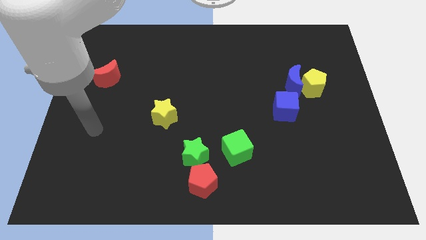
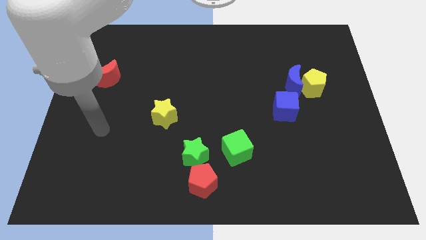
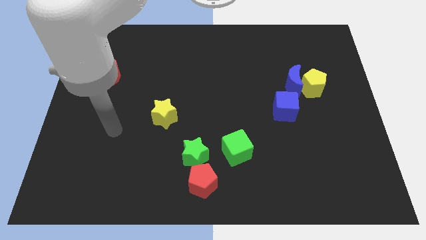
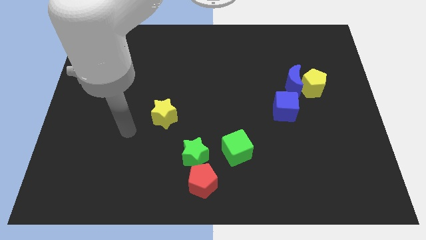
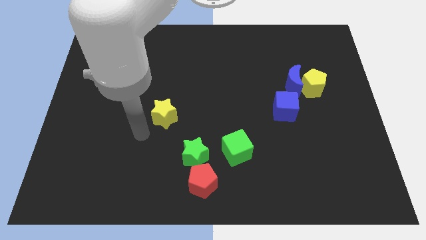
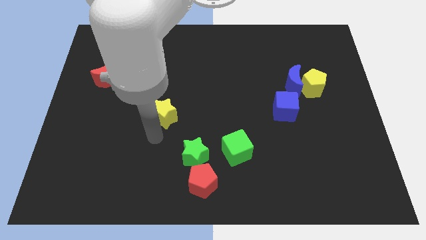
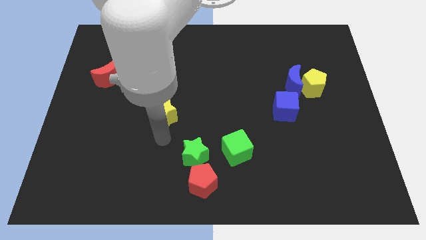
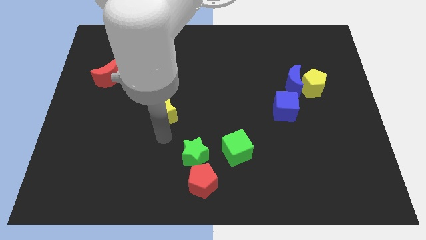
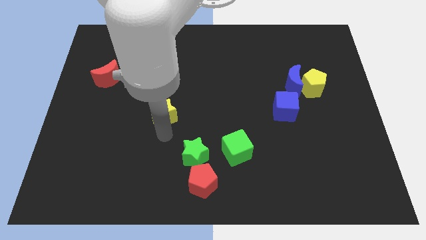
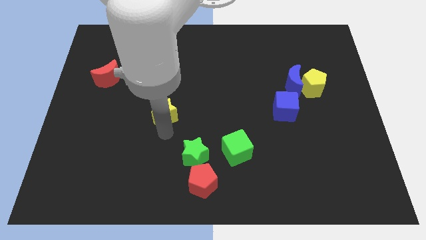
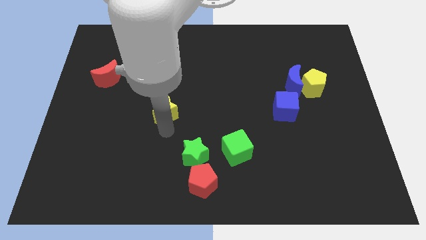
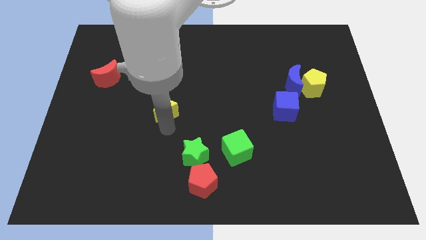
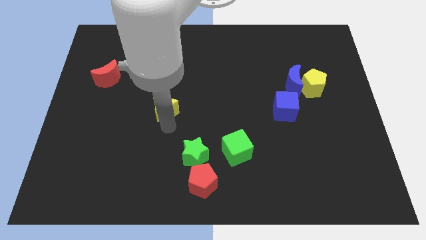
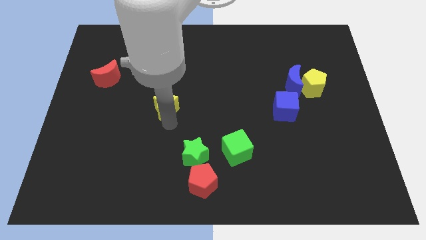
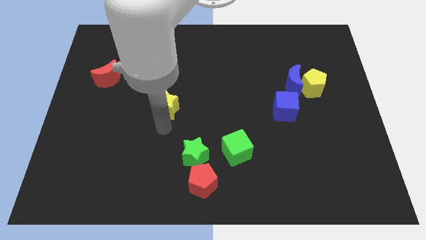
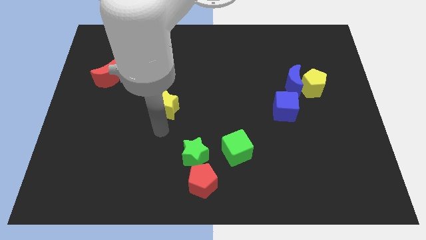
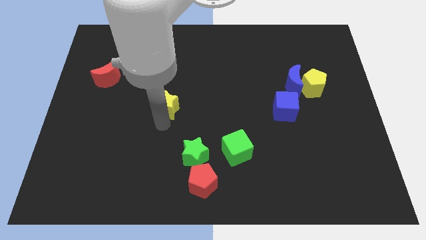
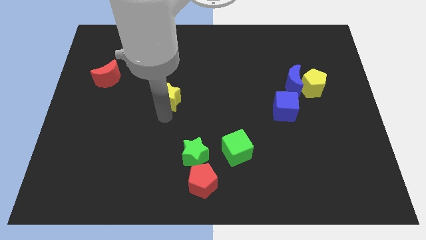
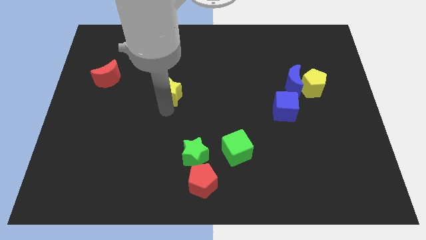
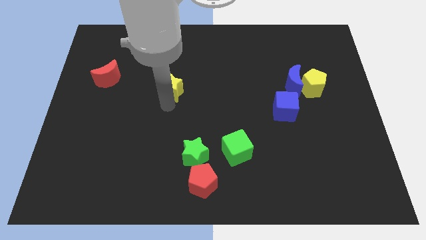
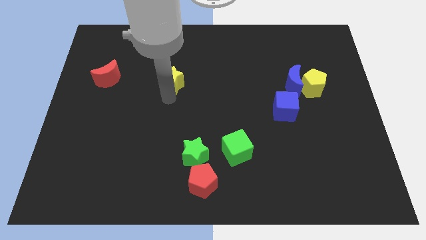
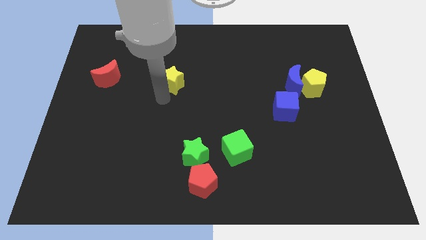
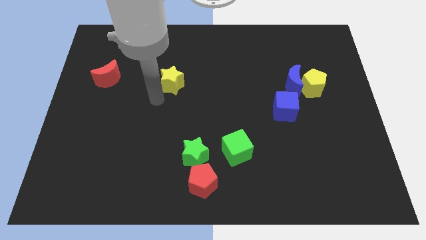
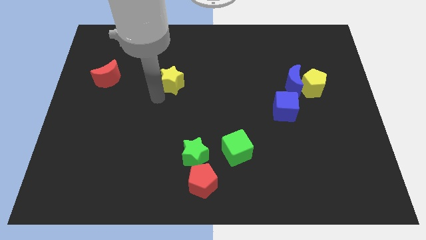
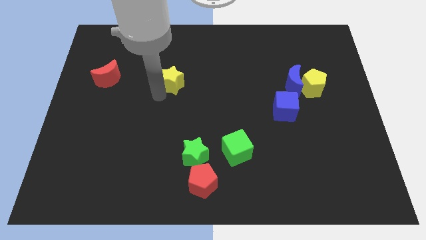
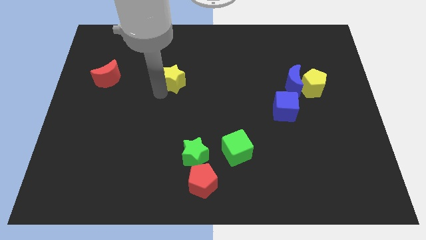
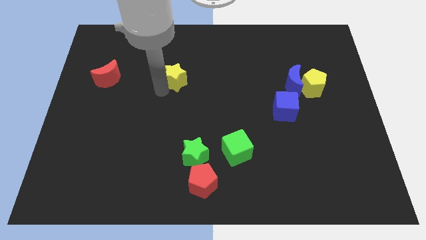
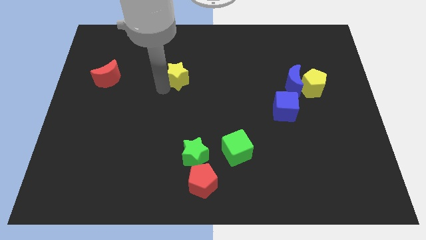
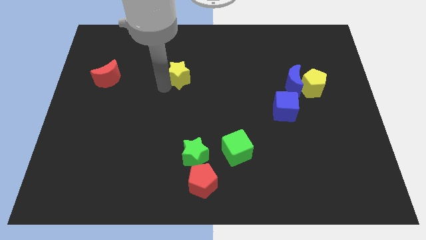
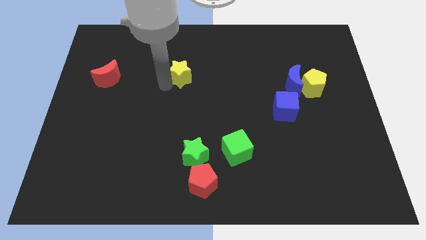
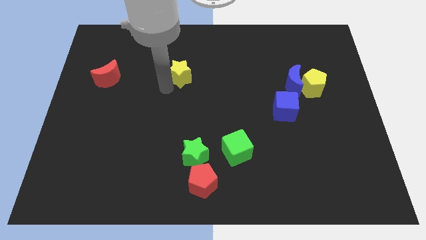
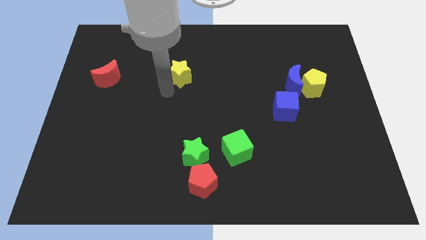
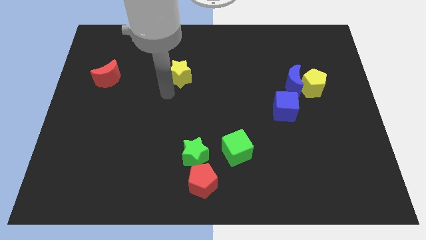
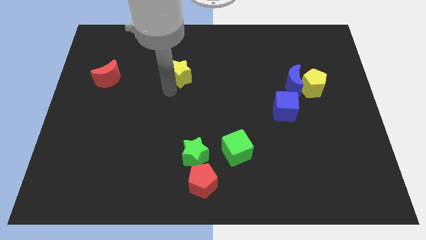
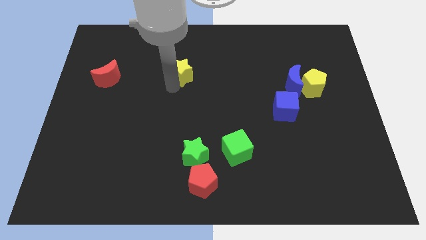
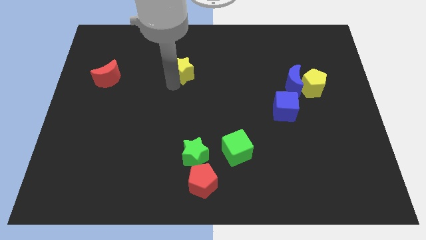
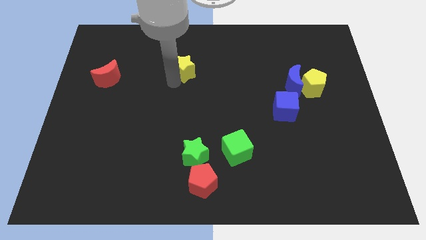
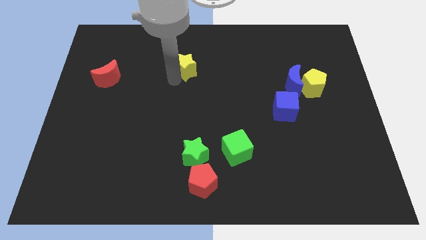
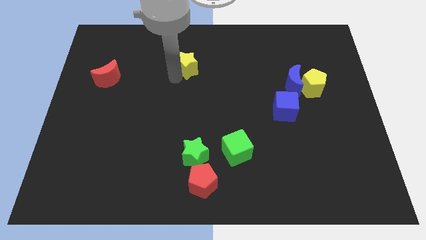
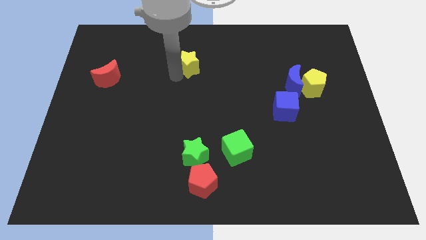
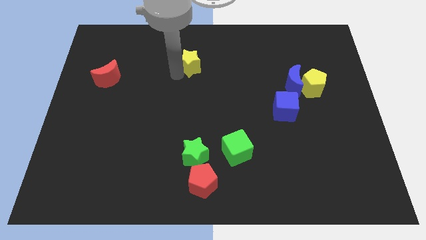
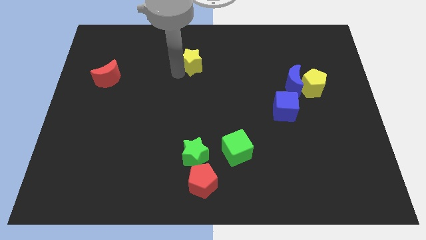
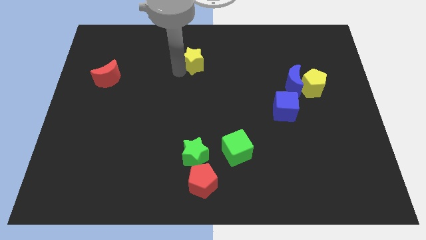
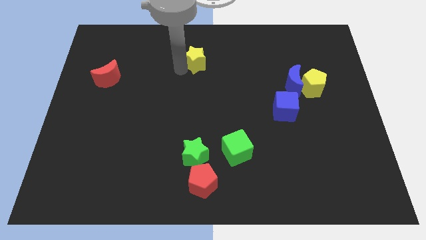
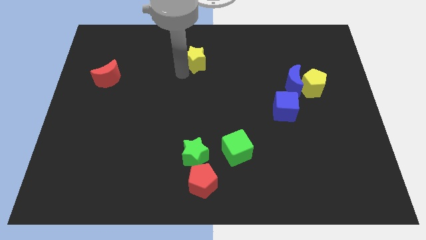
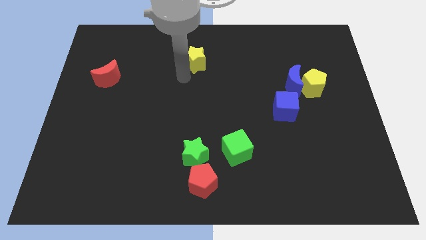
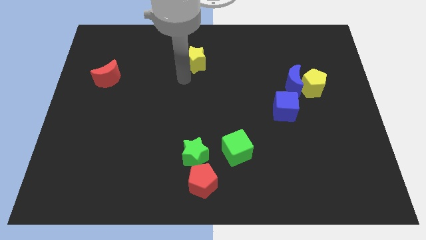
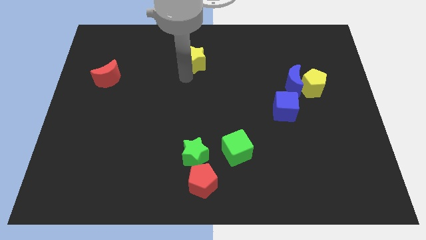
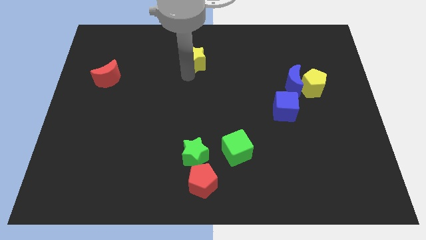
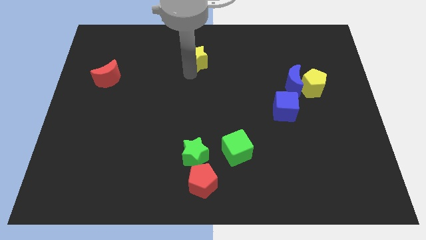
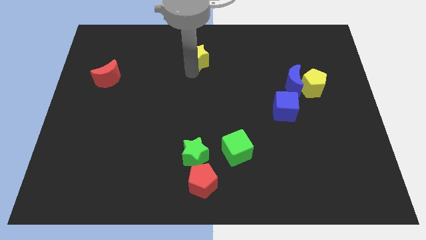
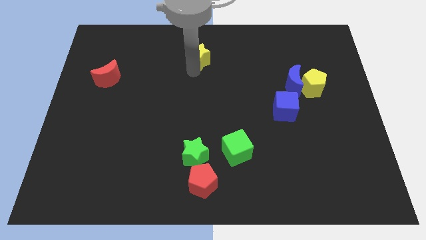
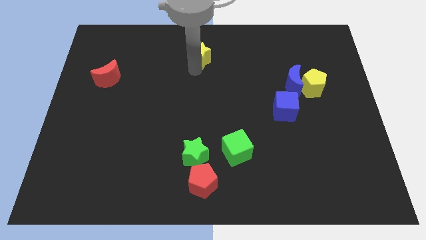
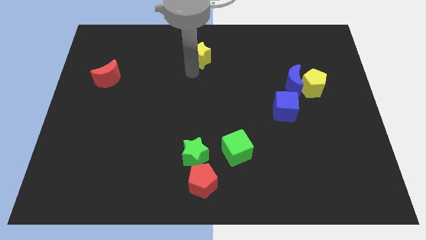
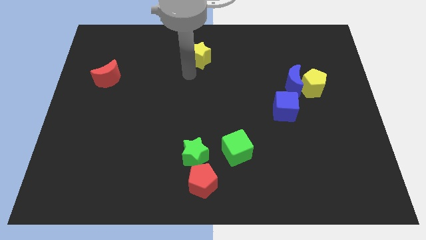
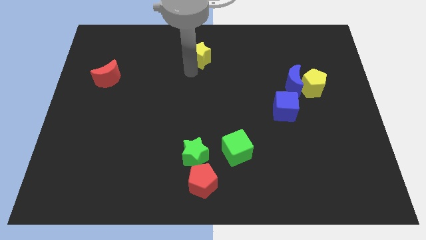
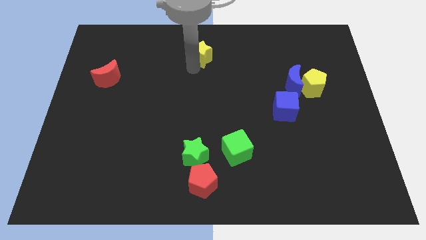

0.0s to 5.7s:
push the yellow star to the top side
